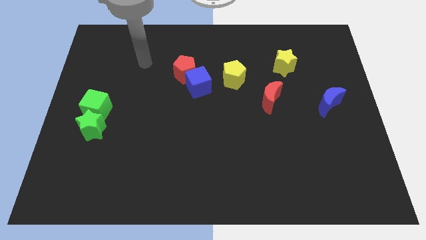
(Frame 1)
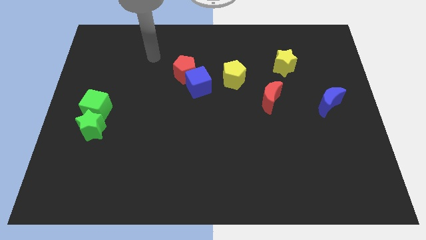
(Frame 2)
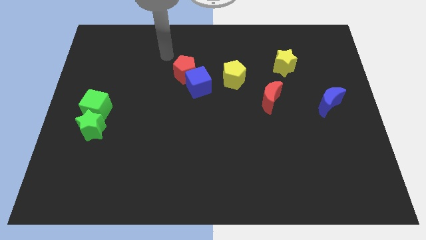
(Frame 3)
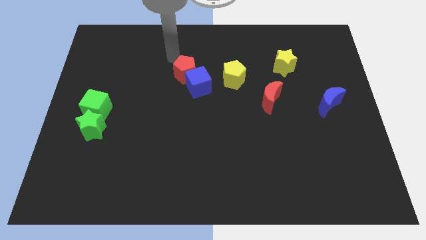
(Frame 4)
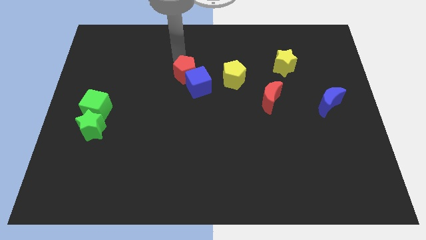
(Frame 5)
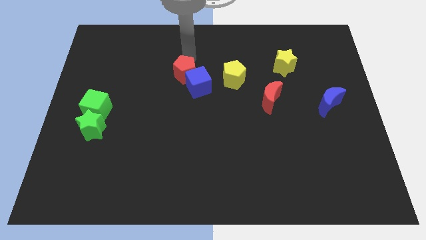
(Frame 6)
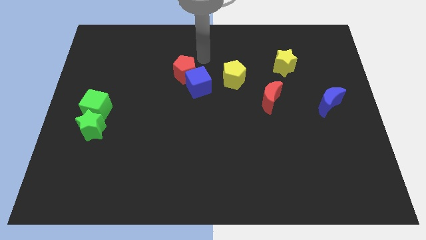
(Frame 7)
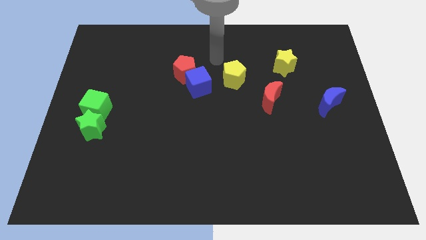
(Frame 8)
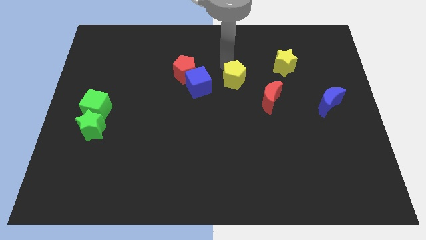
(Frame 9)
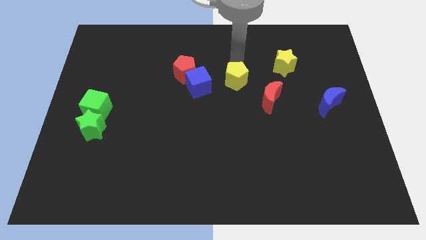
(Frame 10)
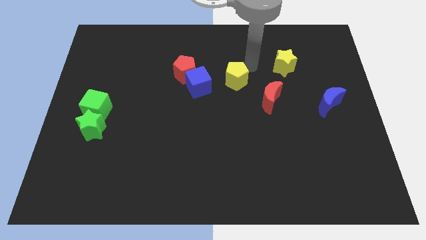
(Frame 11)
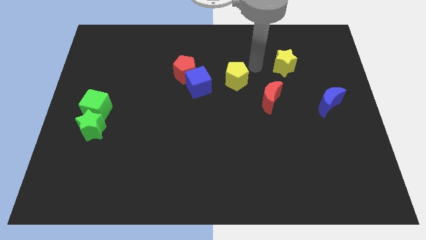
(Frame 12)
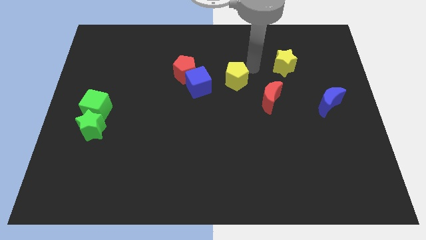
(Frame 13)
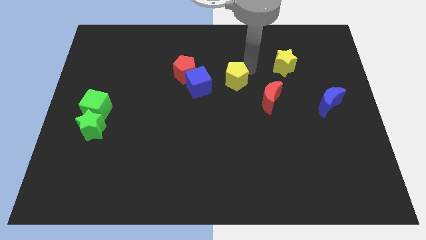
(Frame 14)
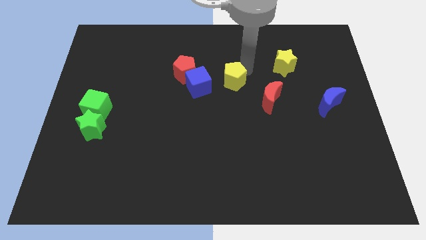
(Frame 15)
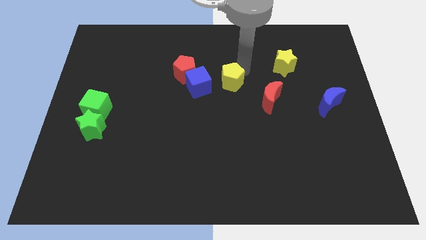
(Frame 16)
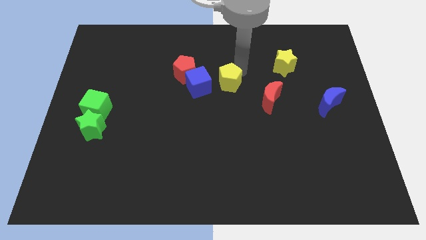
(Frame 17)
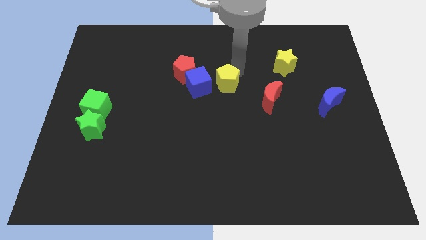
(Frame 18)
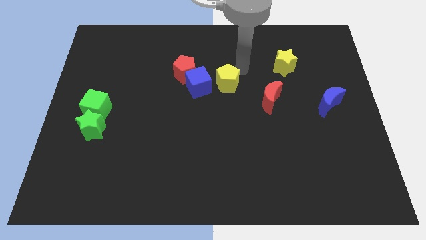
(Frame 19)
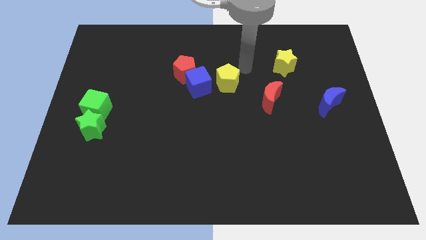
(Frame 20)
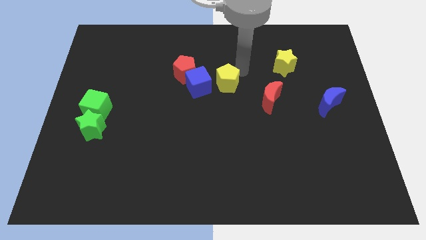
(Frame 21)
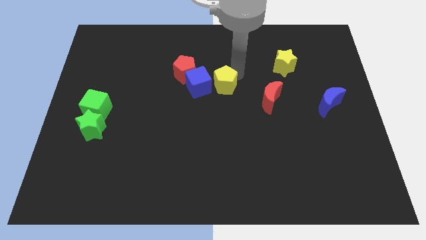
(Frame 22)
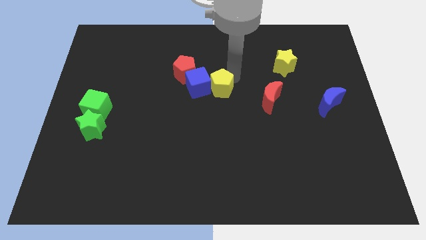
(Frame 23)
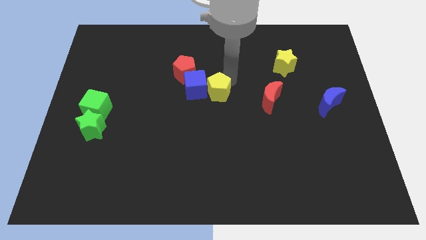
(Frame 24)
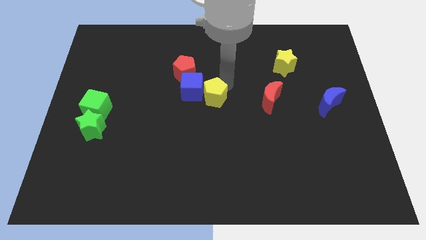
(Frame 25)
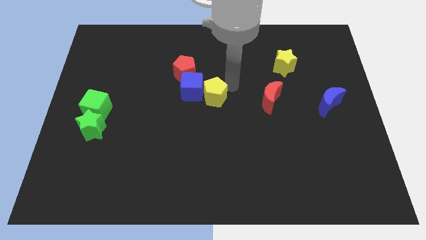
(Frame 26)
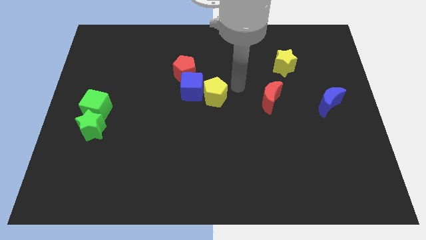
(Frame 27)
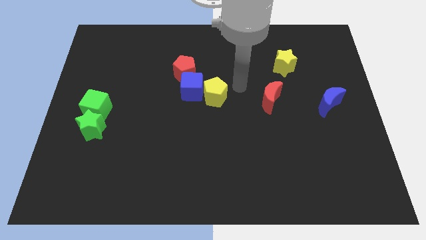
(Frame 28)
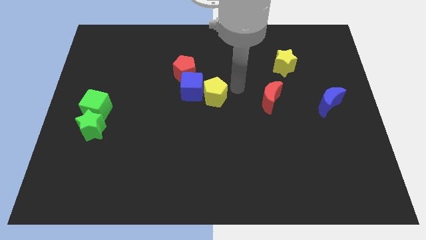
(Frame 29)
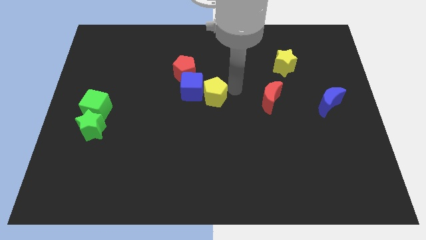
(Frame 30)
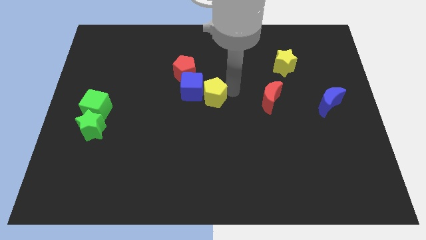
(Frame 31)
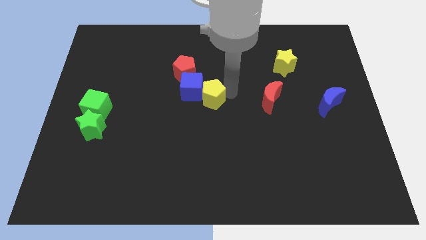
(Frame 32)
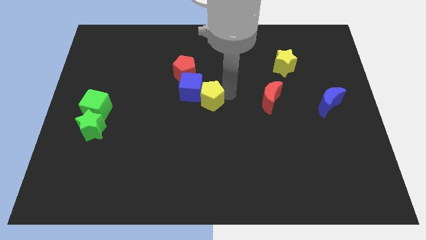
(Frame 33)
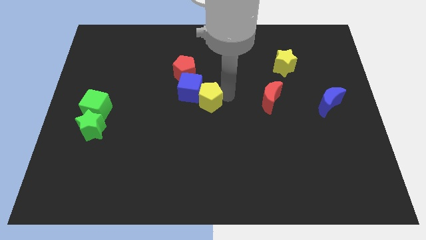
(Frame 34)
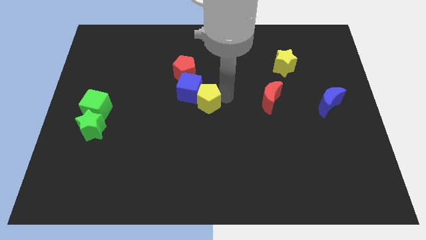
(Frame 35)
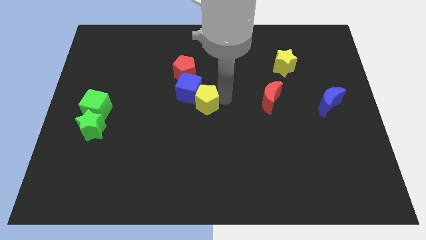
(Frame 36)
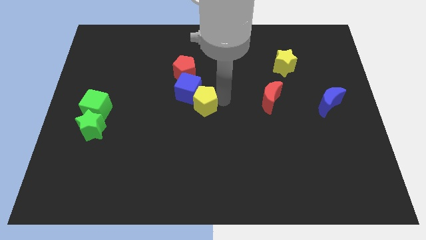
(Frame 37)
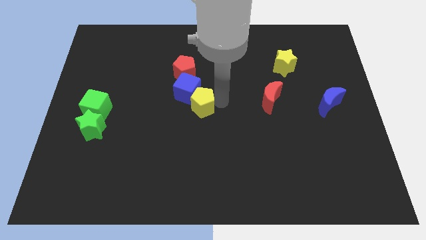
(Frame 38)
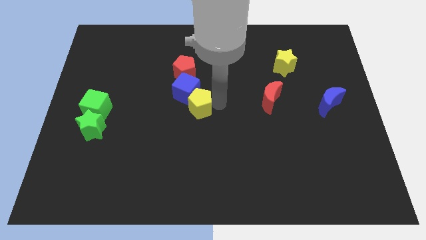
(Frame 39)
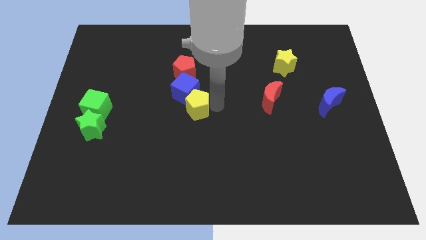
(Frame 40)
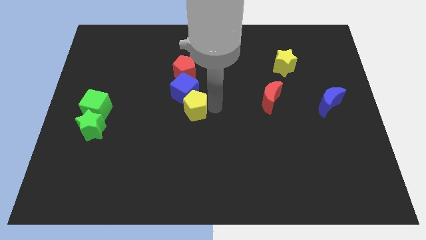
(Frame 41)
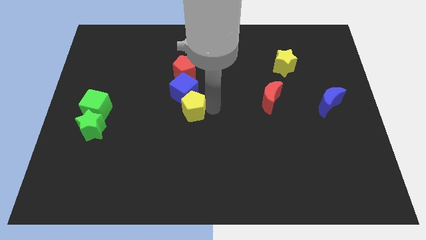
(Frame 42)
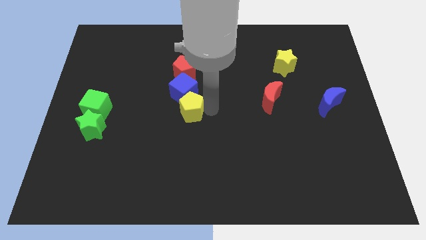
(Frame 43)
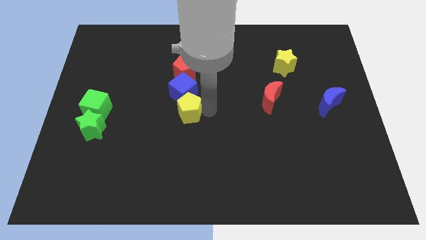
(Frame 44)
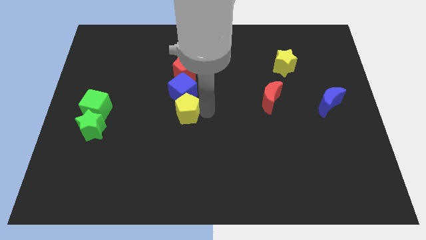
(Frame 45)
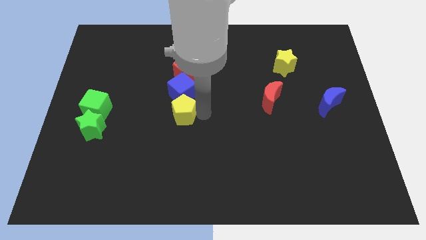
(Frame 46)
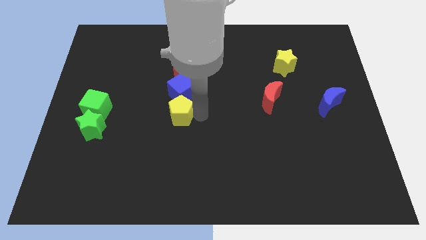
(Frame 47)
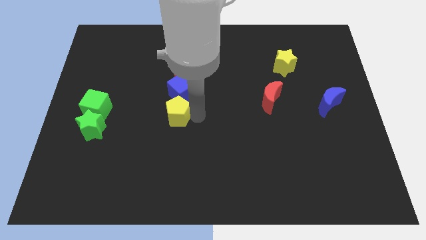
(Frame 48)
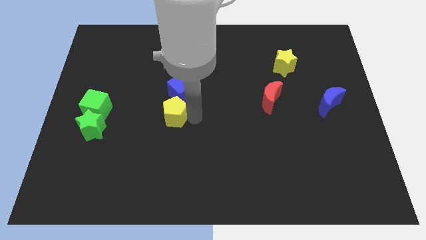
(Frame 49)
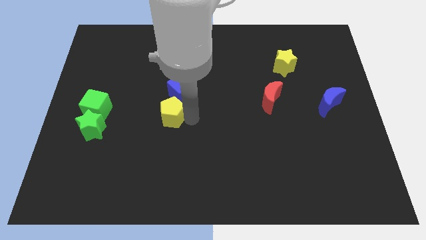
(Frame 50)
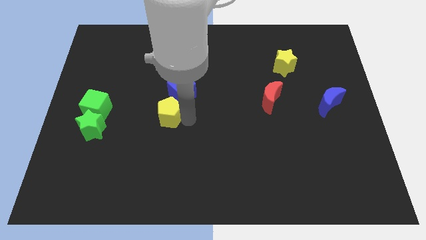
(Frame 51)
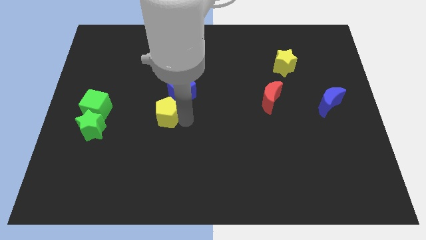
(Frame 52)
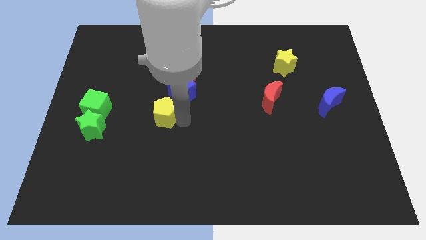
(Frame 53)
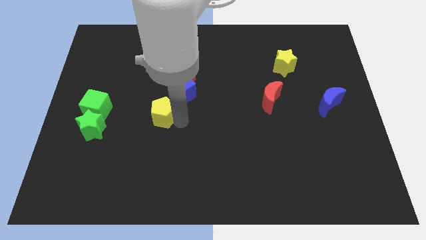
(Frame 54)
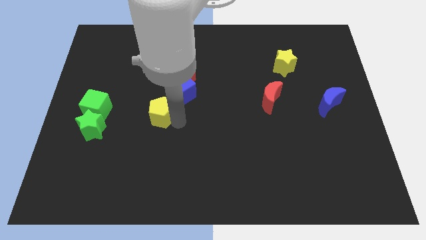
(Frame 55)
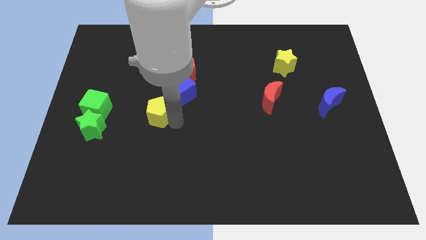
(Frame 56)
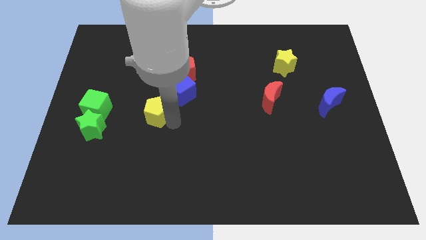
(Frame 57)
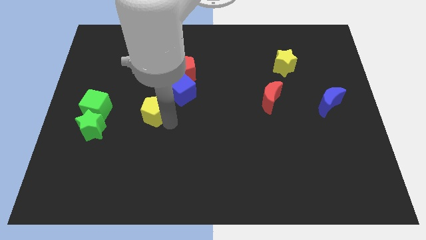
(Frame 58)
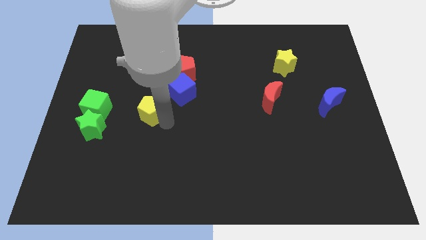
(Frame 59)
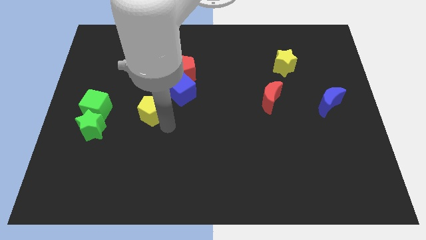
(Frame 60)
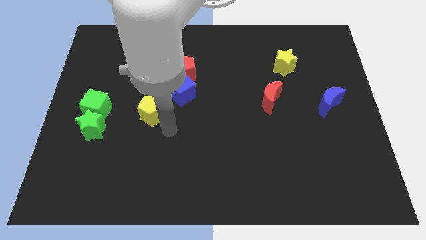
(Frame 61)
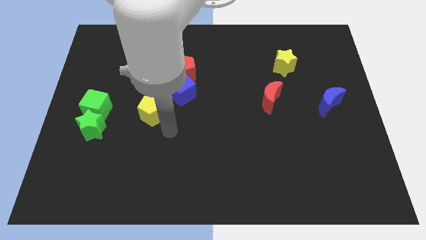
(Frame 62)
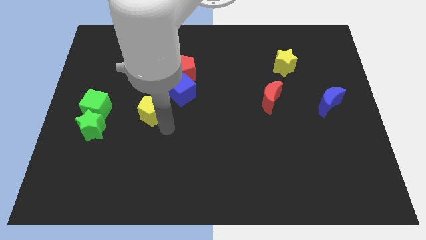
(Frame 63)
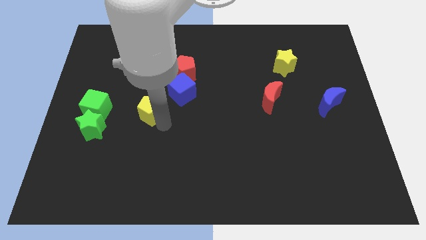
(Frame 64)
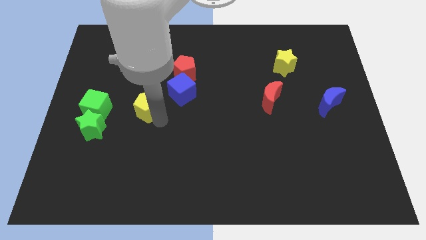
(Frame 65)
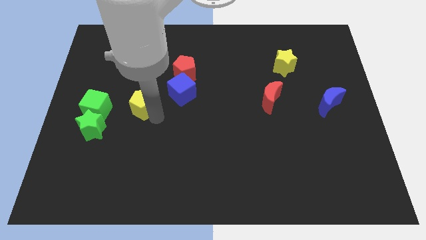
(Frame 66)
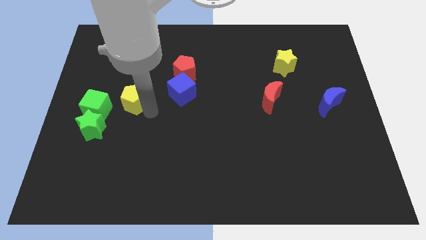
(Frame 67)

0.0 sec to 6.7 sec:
slide the yellow pentagon left

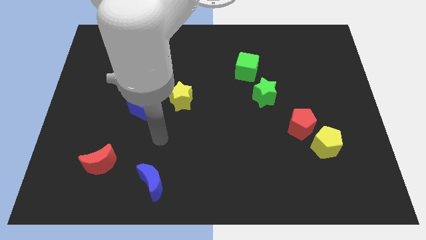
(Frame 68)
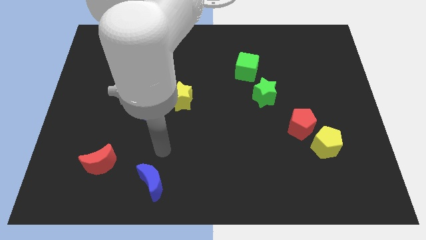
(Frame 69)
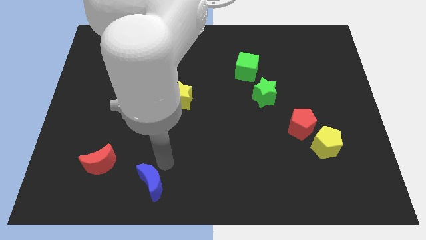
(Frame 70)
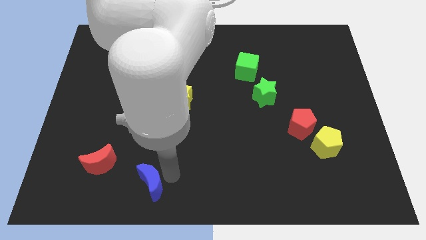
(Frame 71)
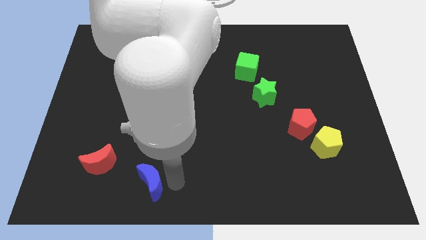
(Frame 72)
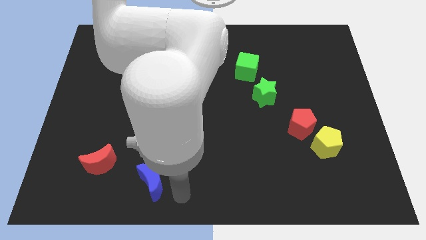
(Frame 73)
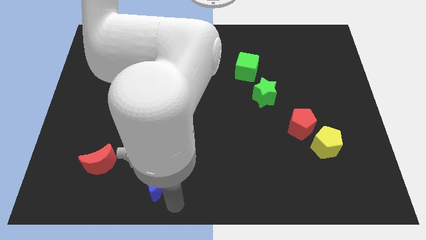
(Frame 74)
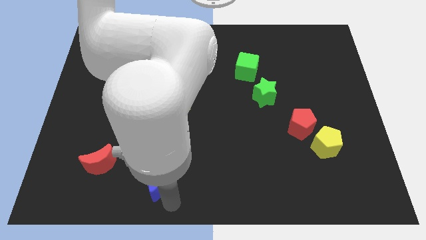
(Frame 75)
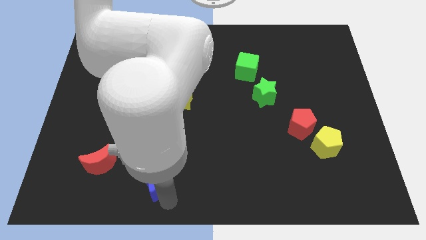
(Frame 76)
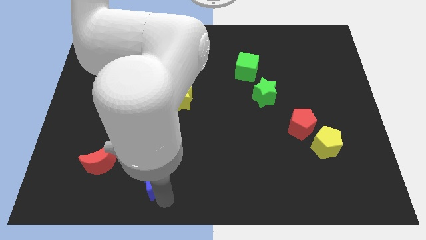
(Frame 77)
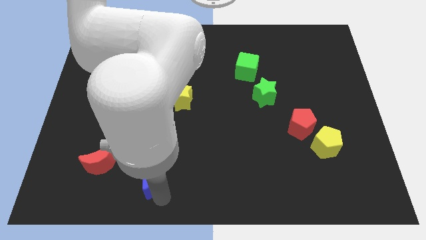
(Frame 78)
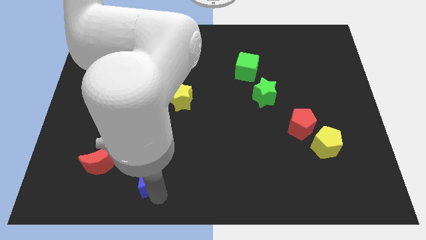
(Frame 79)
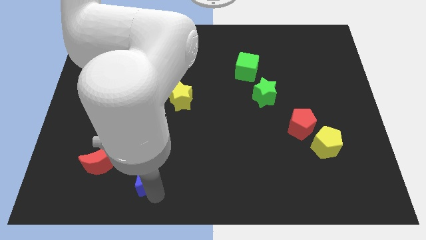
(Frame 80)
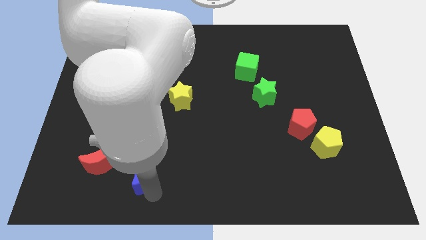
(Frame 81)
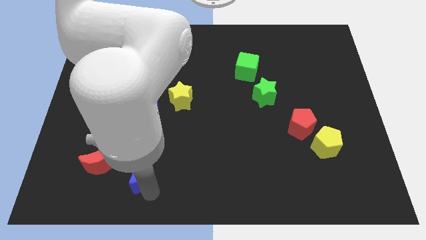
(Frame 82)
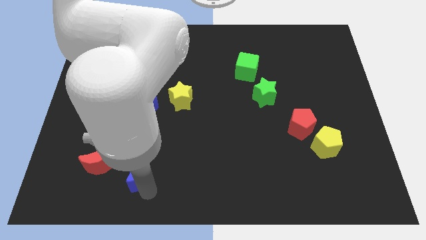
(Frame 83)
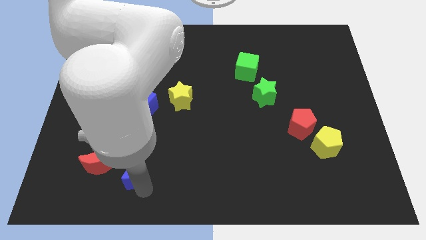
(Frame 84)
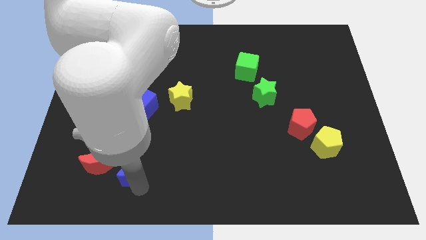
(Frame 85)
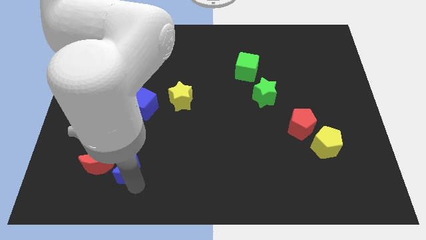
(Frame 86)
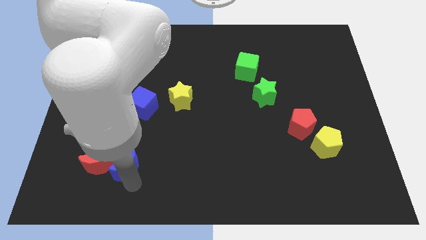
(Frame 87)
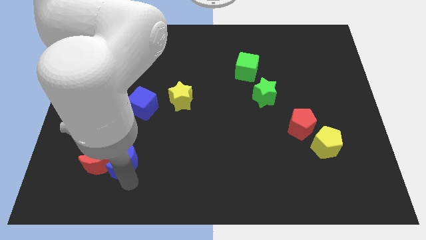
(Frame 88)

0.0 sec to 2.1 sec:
push the blue moon slightly up and then left
